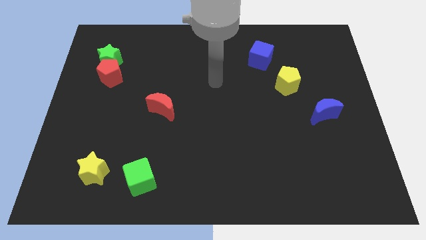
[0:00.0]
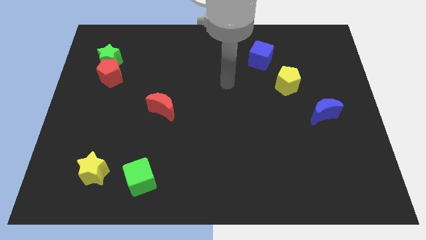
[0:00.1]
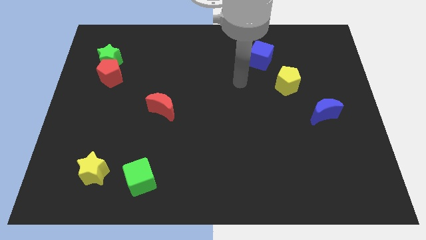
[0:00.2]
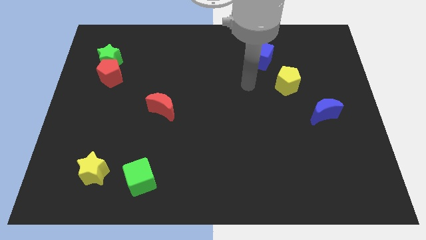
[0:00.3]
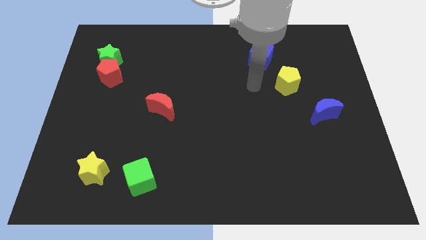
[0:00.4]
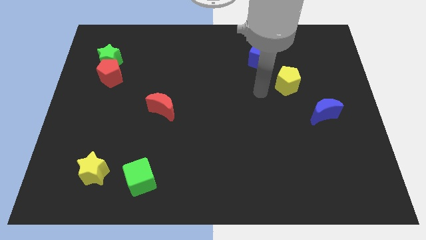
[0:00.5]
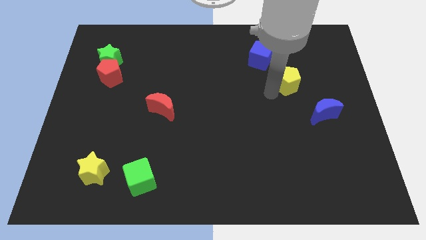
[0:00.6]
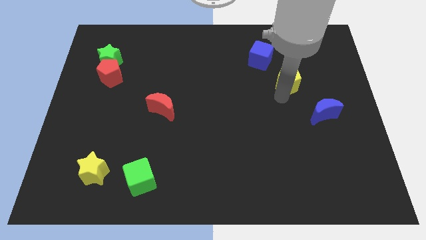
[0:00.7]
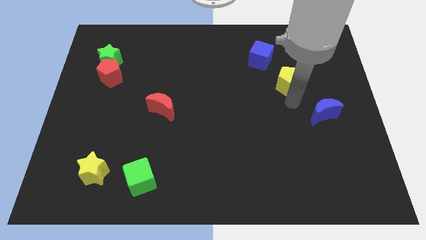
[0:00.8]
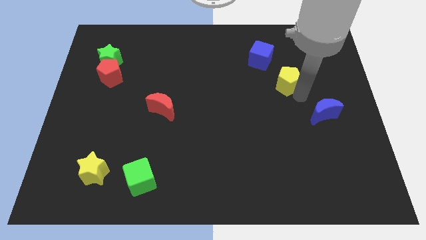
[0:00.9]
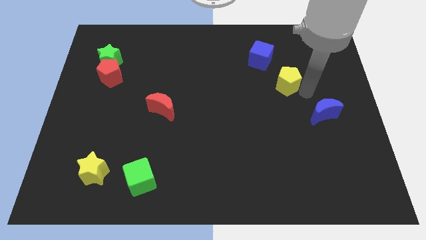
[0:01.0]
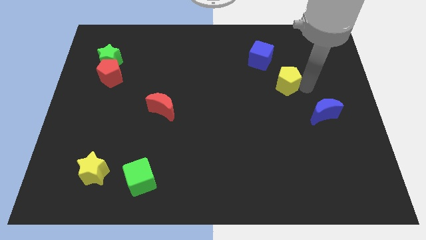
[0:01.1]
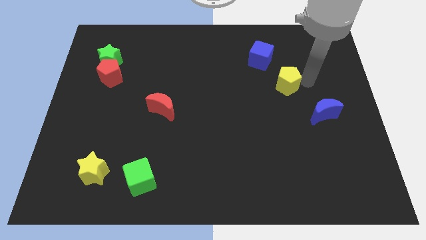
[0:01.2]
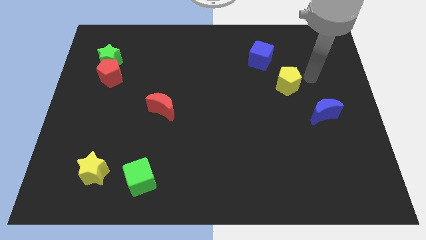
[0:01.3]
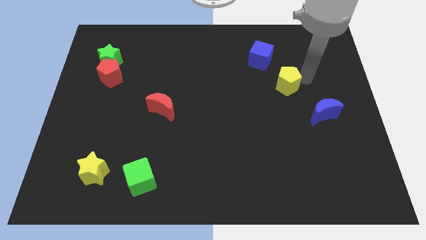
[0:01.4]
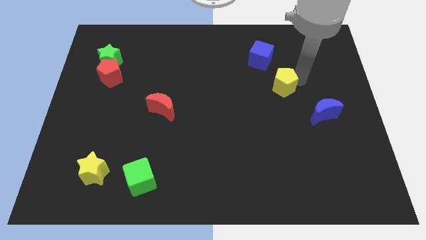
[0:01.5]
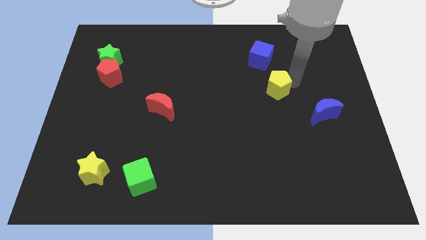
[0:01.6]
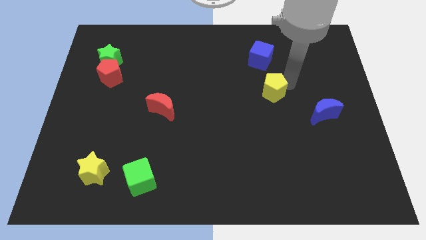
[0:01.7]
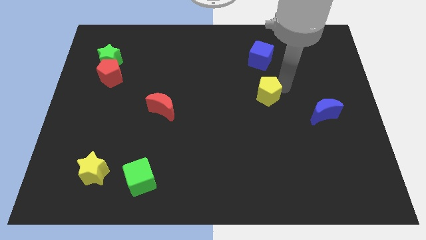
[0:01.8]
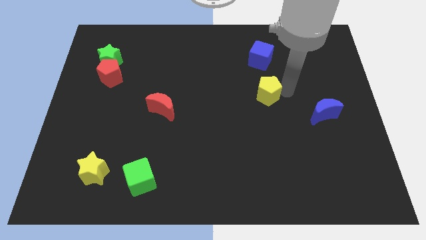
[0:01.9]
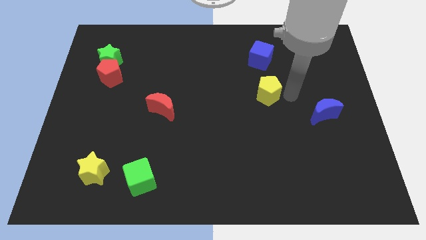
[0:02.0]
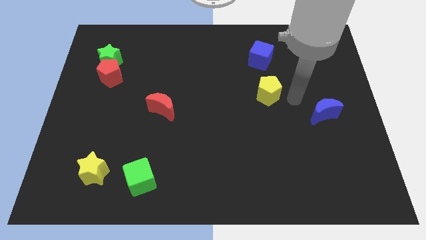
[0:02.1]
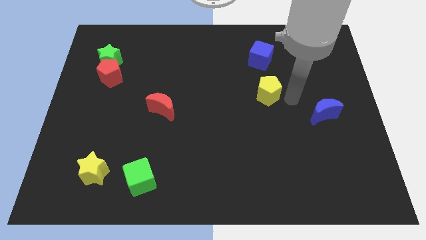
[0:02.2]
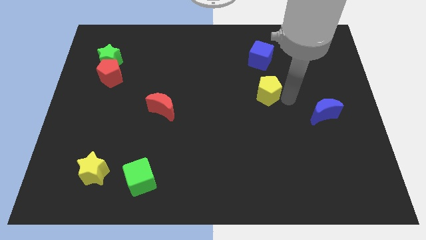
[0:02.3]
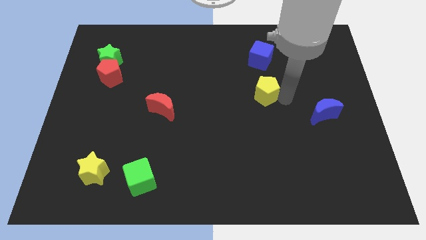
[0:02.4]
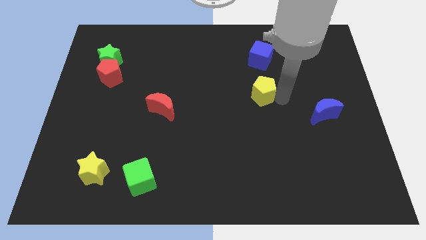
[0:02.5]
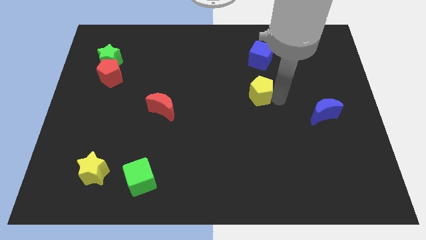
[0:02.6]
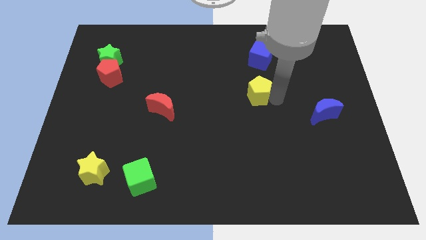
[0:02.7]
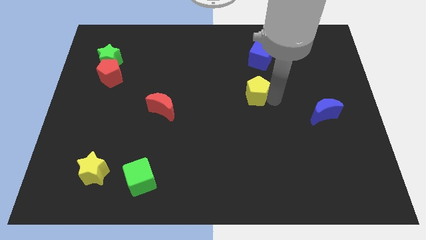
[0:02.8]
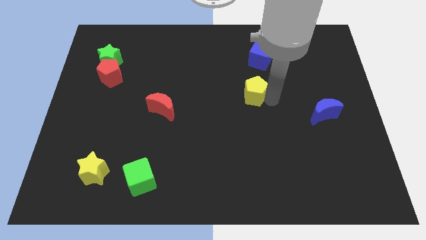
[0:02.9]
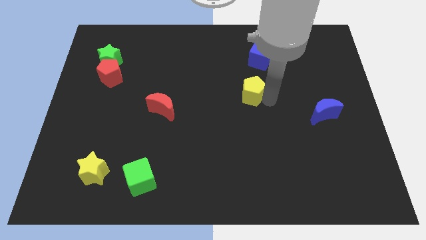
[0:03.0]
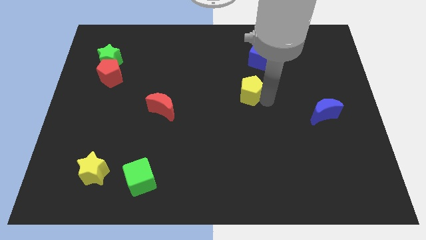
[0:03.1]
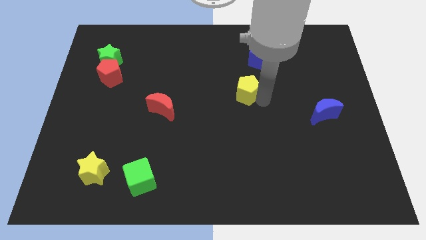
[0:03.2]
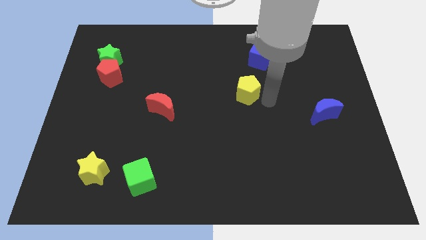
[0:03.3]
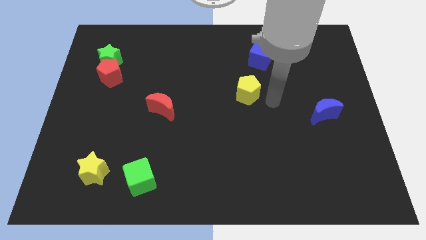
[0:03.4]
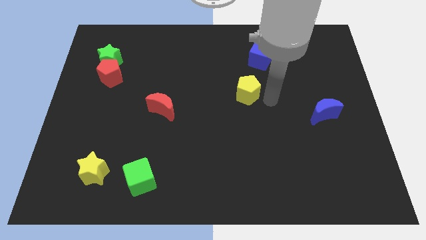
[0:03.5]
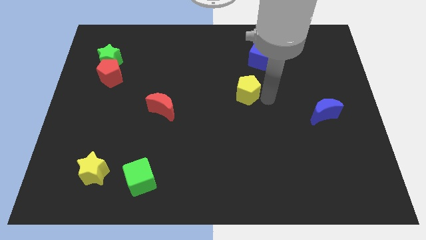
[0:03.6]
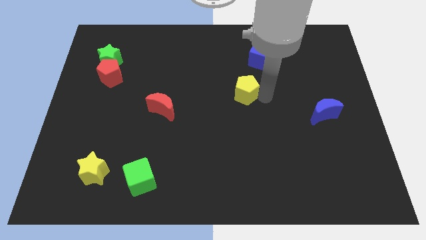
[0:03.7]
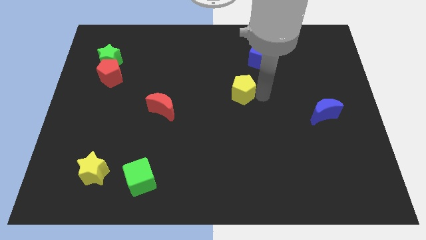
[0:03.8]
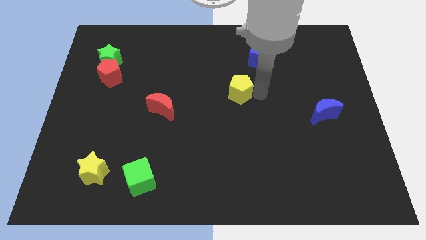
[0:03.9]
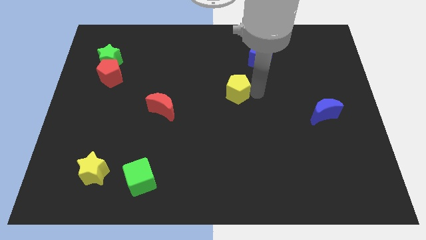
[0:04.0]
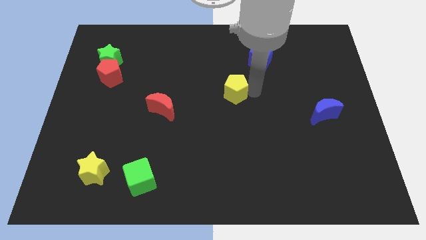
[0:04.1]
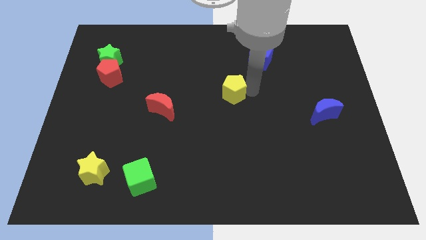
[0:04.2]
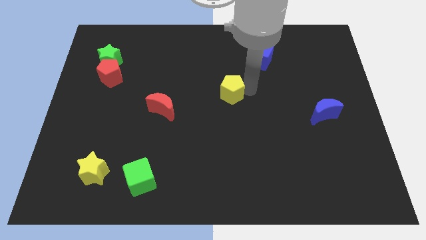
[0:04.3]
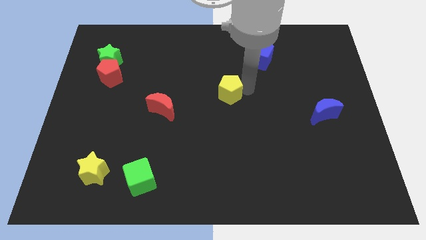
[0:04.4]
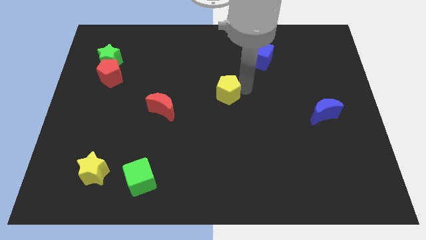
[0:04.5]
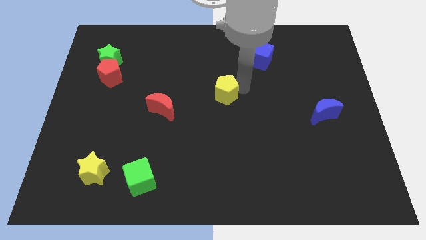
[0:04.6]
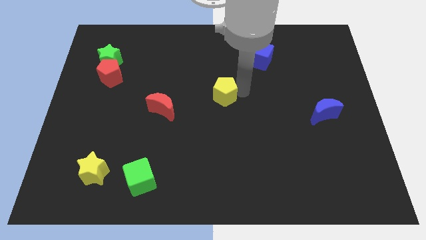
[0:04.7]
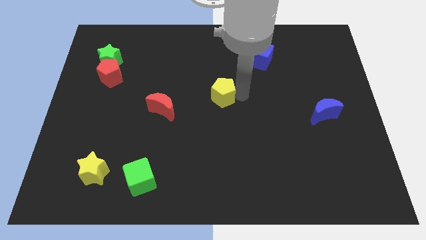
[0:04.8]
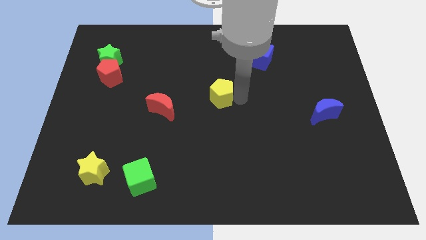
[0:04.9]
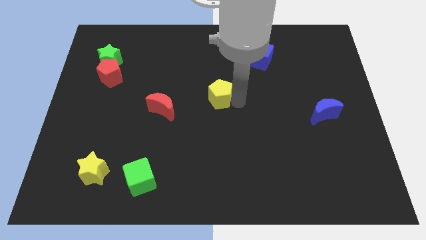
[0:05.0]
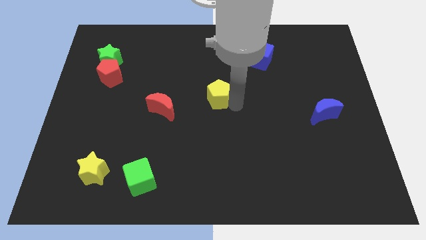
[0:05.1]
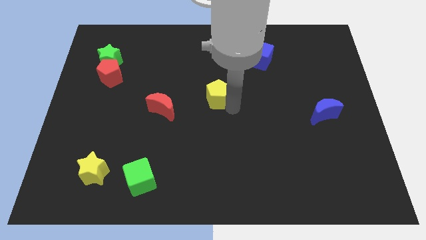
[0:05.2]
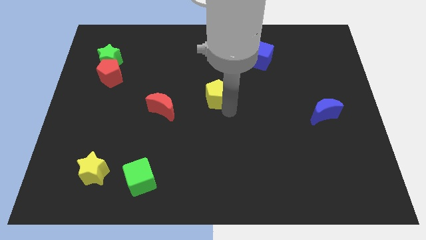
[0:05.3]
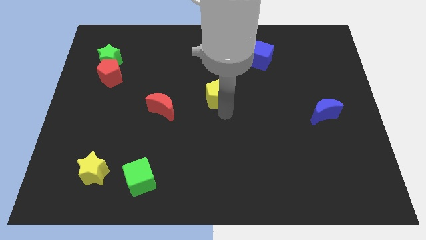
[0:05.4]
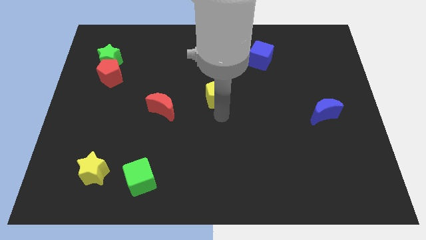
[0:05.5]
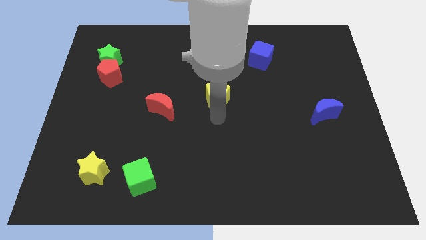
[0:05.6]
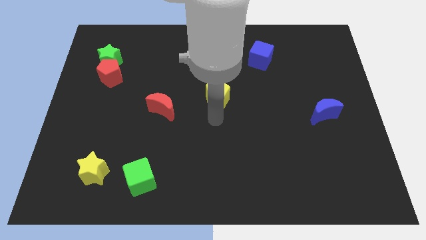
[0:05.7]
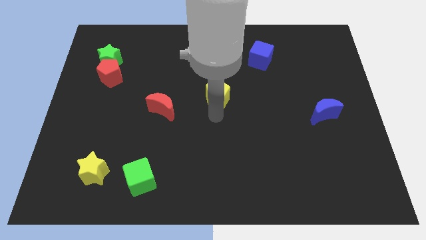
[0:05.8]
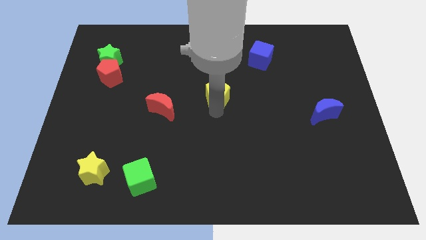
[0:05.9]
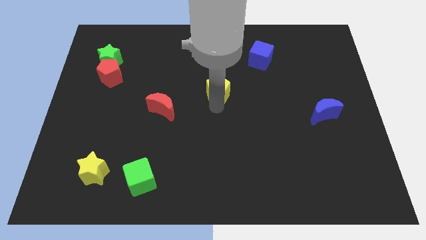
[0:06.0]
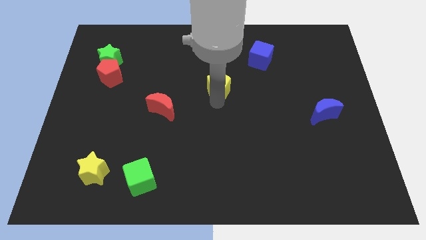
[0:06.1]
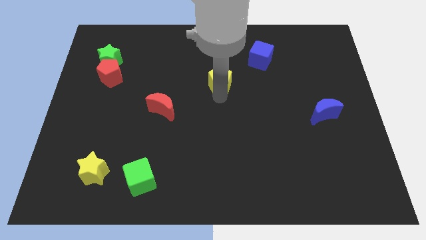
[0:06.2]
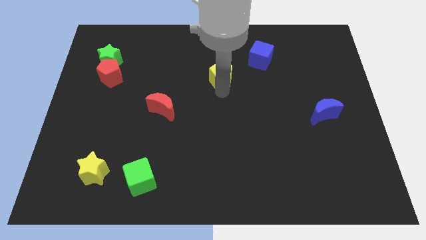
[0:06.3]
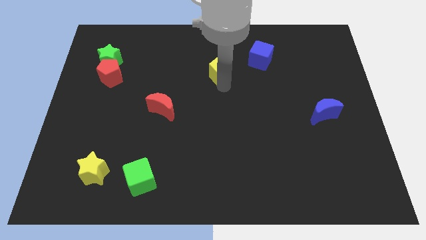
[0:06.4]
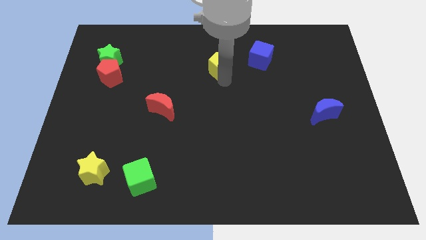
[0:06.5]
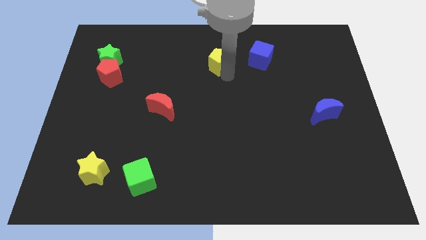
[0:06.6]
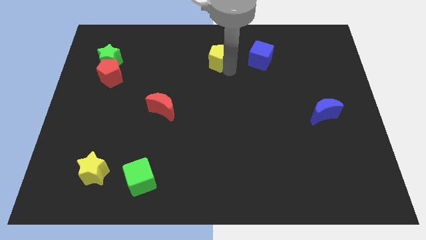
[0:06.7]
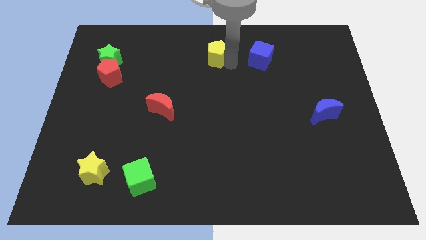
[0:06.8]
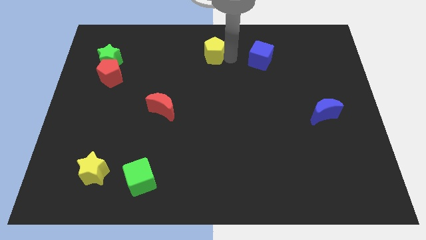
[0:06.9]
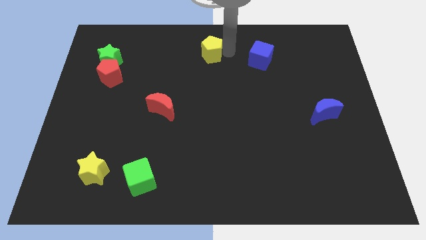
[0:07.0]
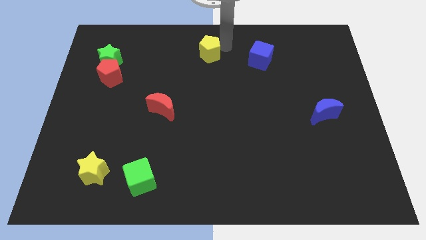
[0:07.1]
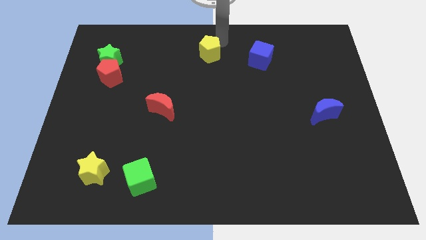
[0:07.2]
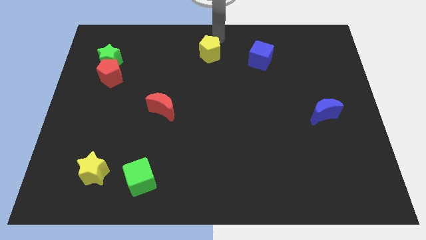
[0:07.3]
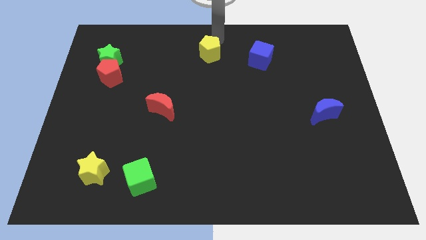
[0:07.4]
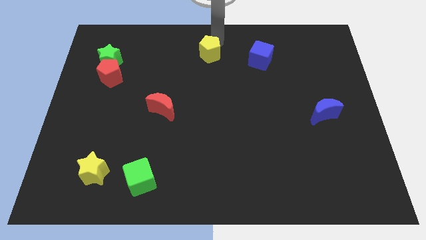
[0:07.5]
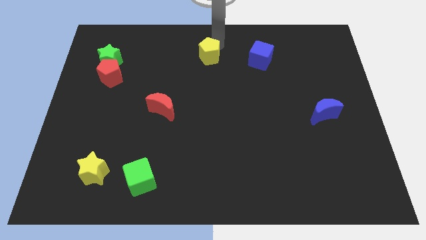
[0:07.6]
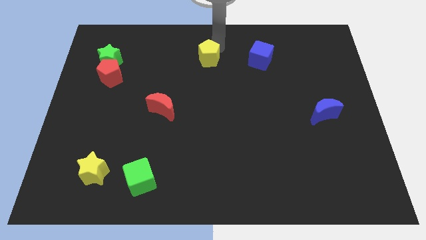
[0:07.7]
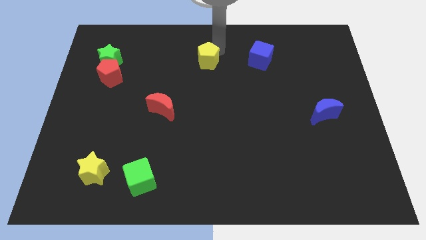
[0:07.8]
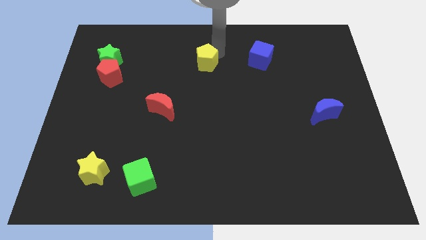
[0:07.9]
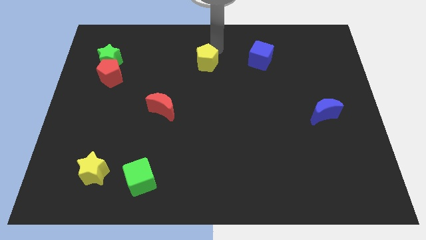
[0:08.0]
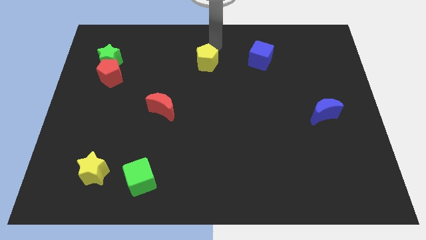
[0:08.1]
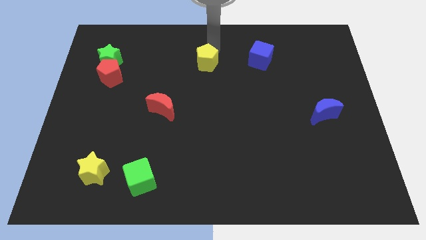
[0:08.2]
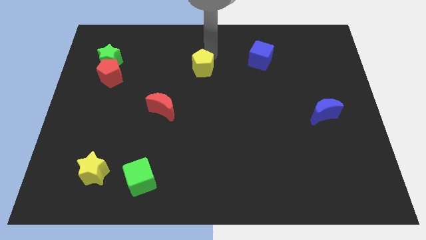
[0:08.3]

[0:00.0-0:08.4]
slide the yellow pentagon to the left
